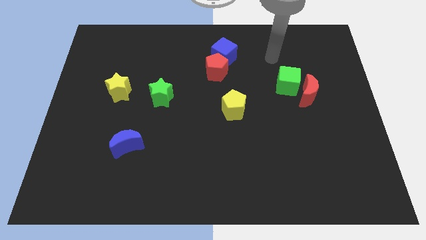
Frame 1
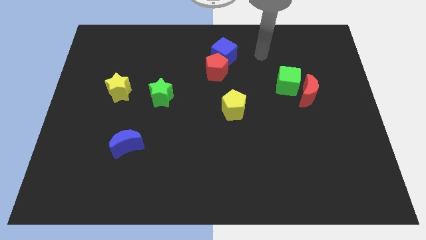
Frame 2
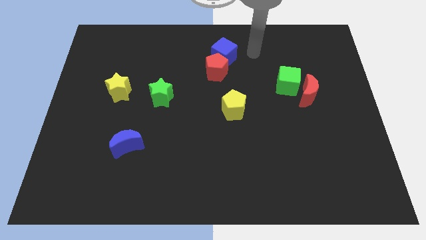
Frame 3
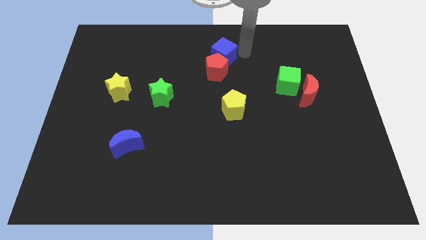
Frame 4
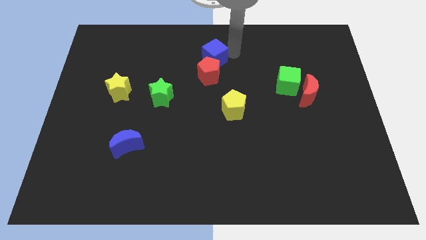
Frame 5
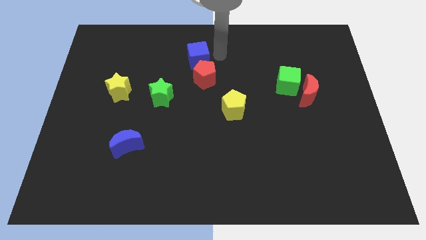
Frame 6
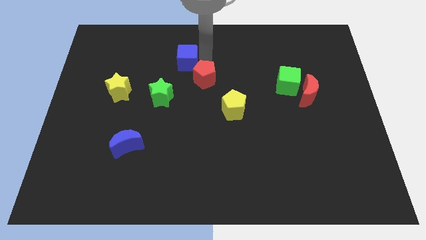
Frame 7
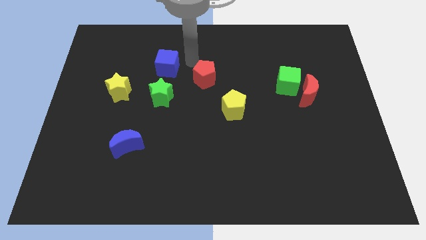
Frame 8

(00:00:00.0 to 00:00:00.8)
separate the red pentagon from the blue cube

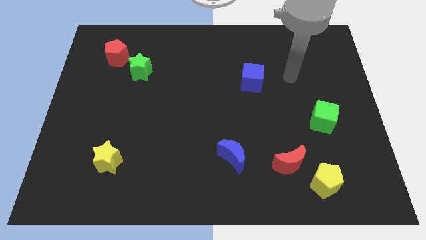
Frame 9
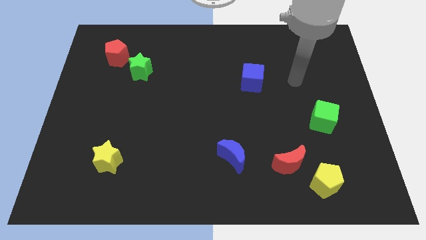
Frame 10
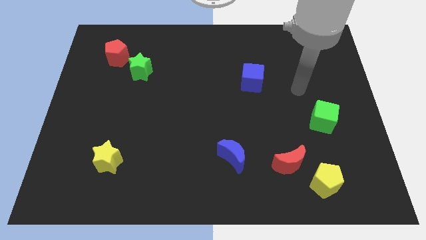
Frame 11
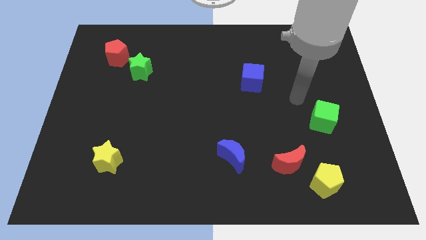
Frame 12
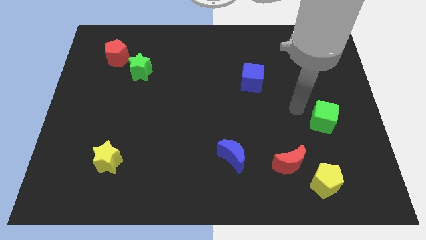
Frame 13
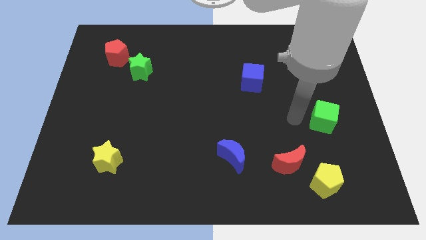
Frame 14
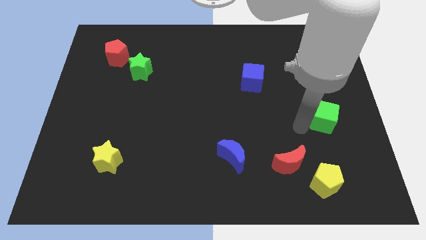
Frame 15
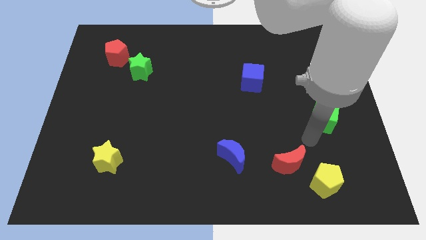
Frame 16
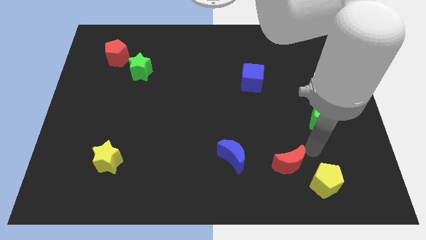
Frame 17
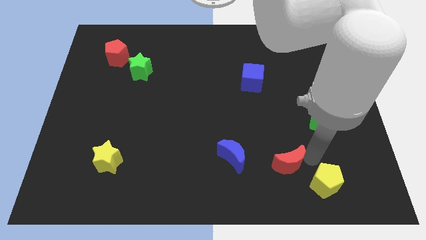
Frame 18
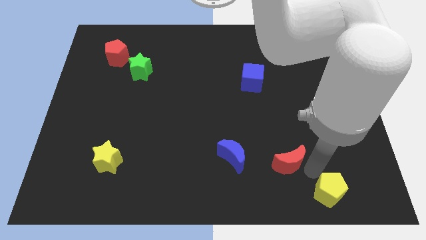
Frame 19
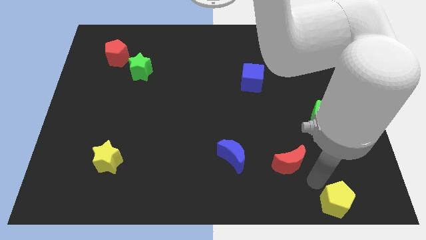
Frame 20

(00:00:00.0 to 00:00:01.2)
separate the red moon from the yellow pentagon

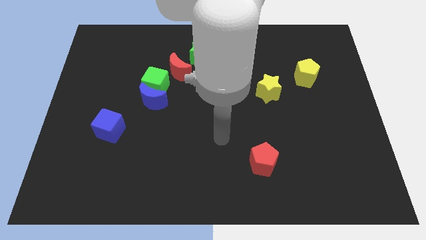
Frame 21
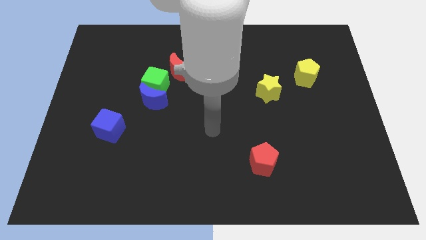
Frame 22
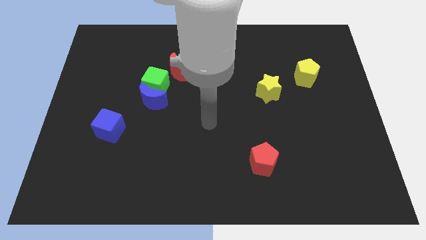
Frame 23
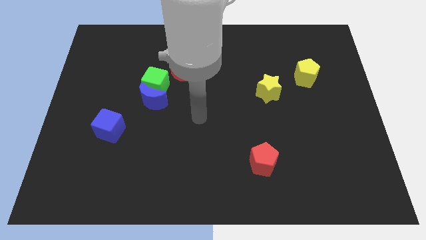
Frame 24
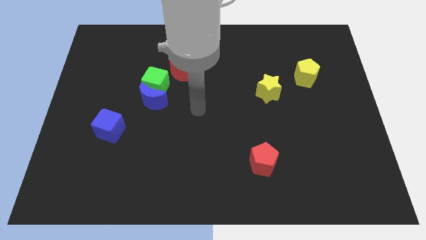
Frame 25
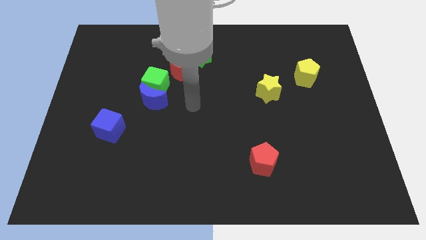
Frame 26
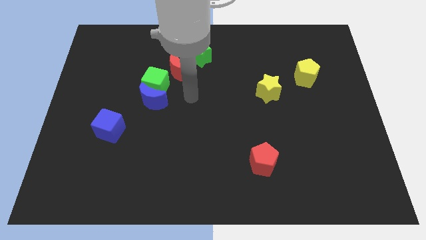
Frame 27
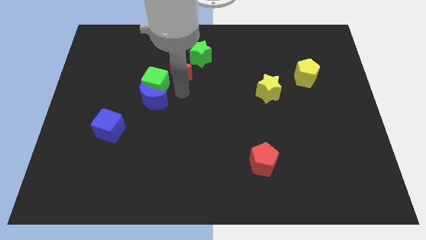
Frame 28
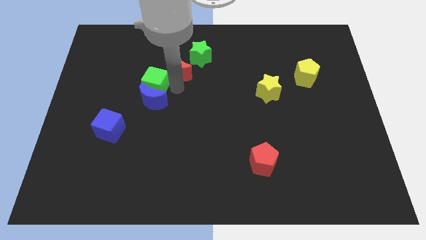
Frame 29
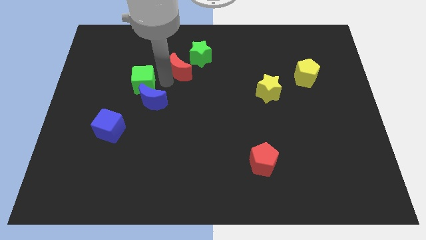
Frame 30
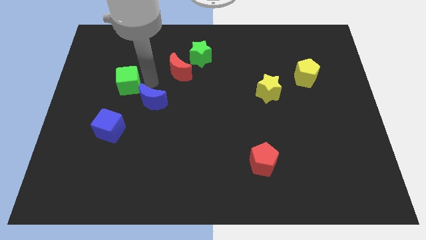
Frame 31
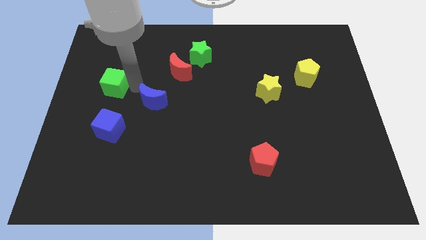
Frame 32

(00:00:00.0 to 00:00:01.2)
pull the blue moon apart from the green cube

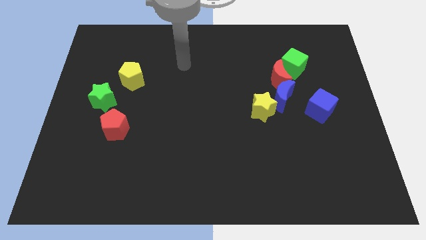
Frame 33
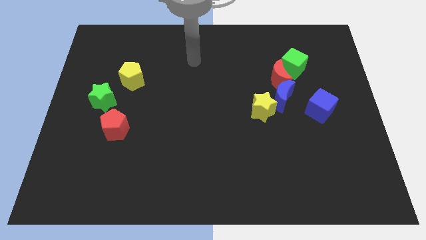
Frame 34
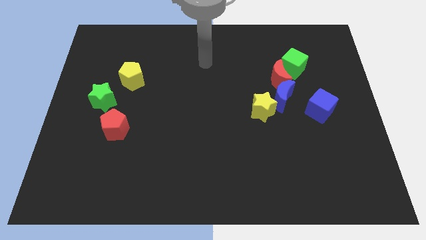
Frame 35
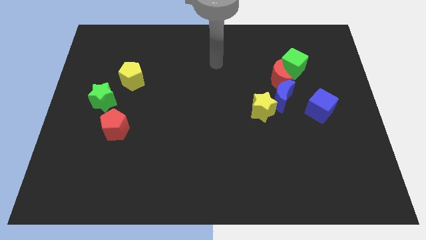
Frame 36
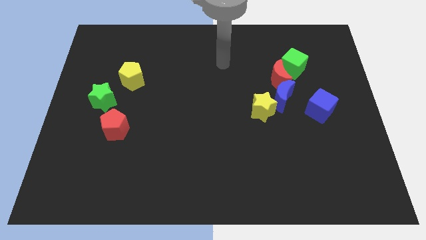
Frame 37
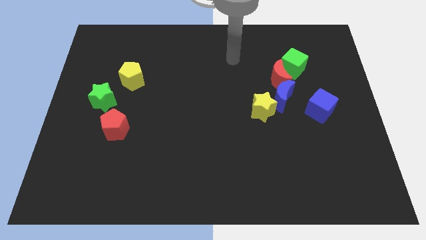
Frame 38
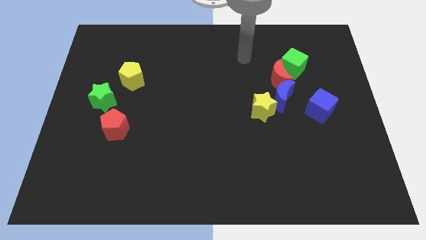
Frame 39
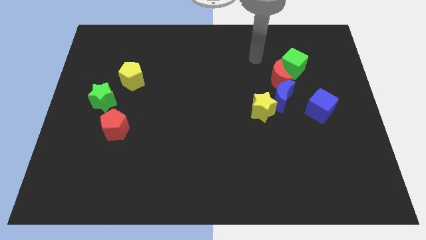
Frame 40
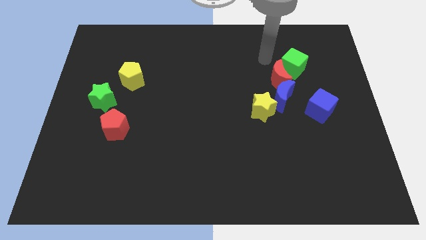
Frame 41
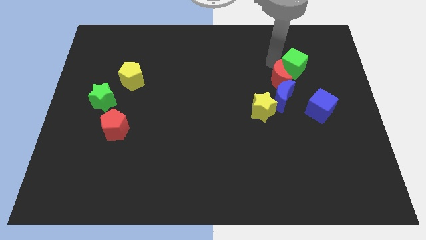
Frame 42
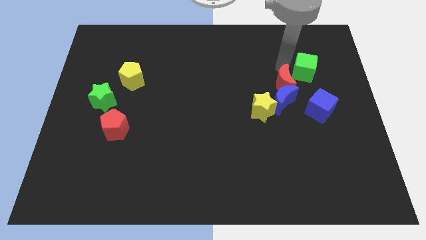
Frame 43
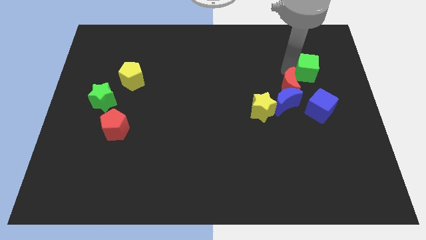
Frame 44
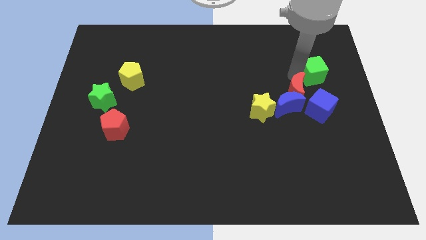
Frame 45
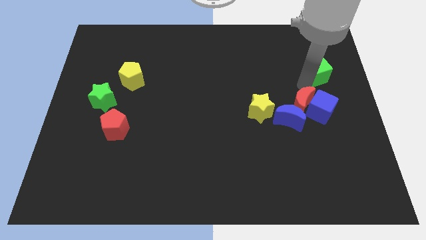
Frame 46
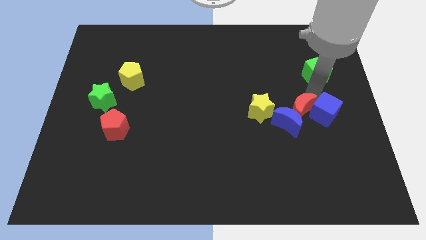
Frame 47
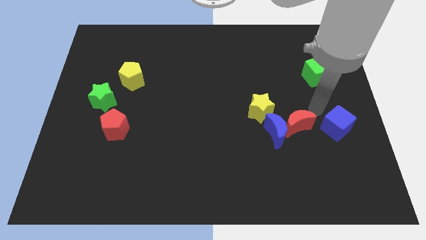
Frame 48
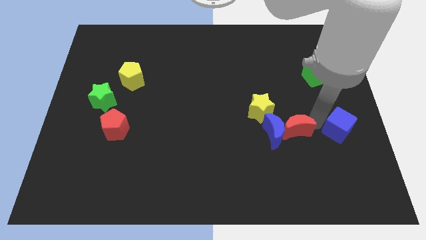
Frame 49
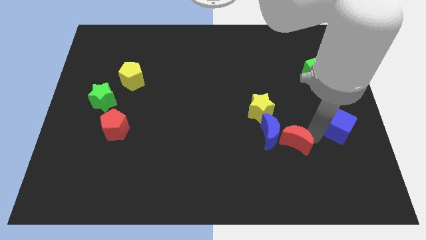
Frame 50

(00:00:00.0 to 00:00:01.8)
separate the red moon from the blue moon and green cube

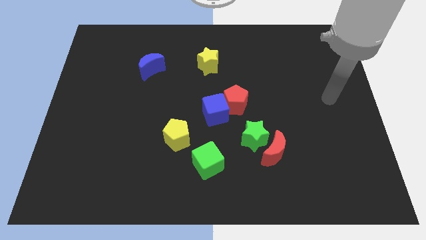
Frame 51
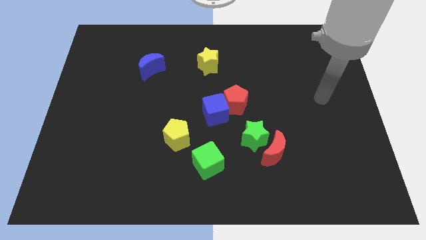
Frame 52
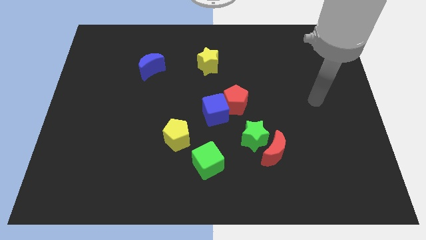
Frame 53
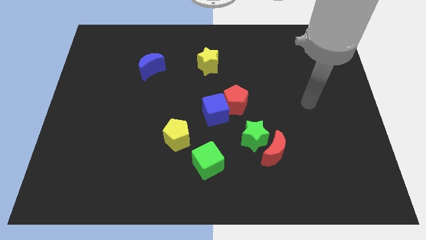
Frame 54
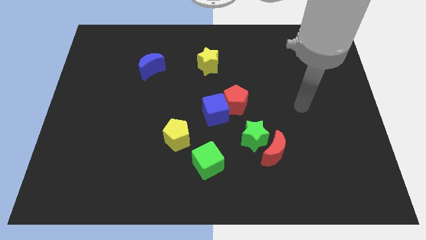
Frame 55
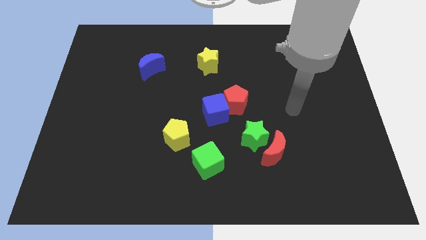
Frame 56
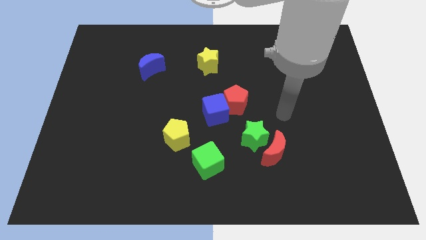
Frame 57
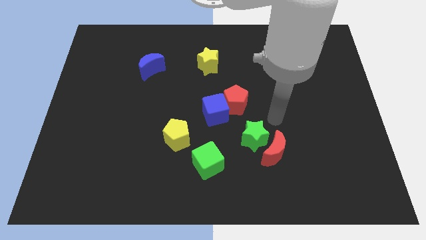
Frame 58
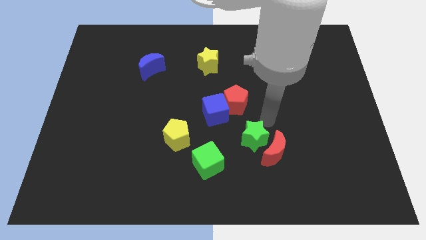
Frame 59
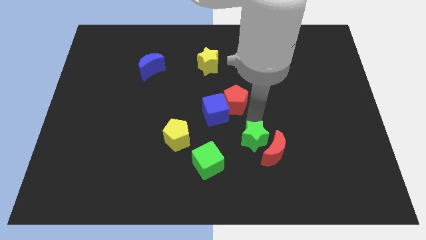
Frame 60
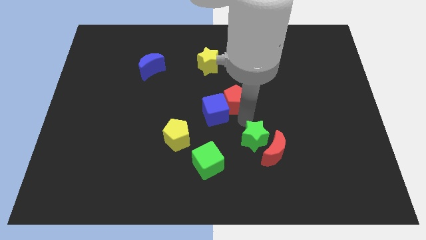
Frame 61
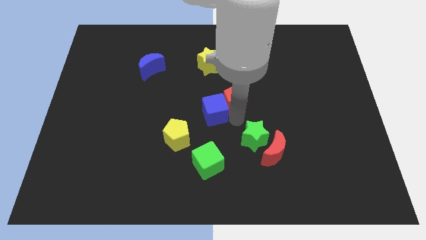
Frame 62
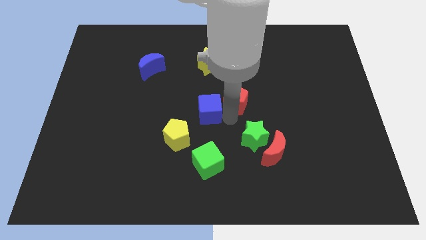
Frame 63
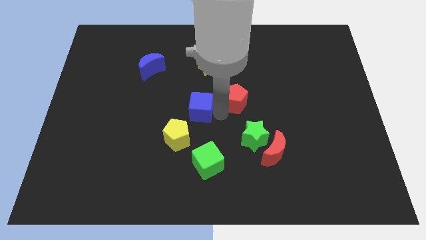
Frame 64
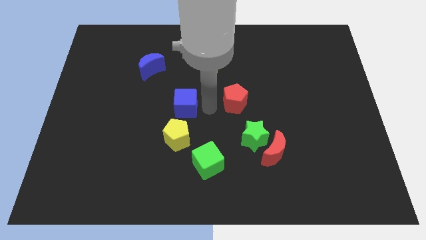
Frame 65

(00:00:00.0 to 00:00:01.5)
move the red pentagon away from the blue cube

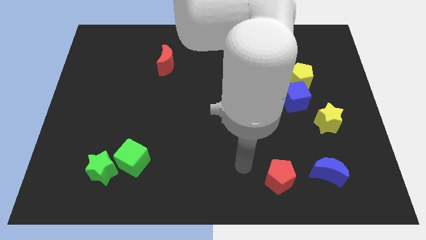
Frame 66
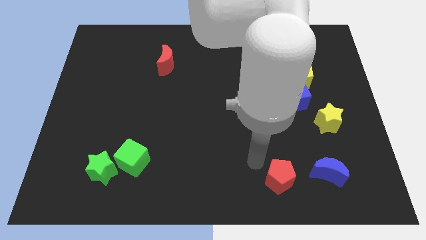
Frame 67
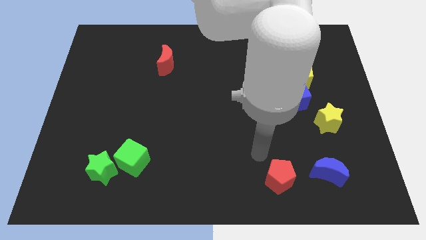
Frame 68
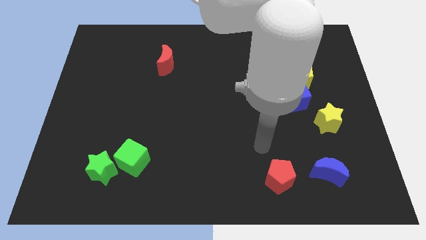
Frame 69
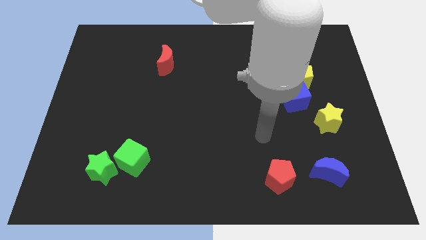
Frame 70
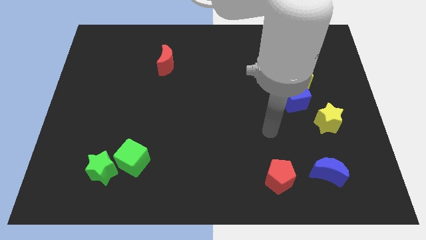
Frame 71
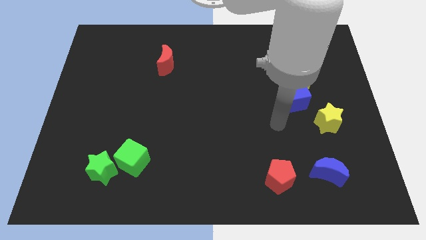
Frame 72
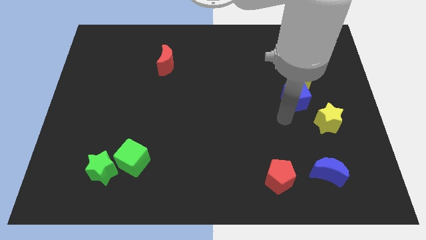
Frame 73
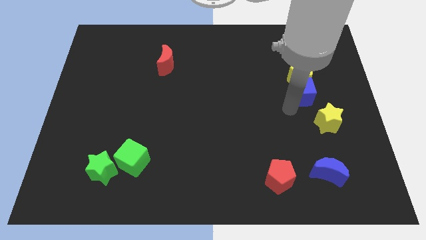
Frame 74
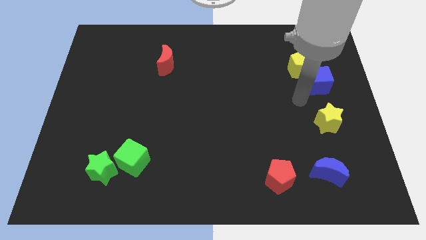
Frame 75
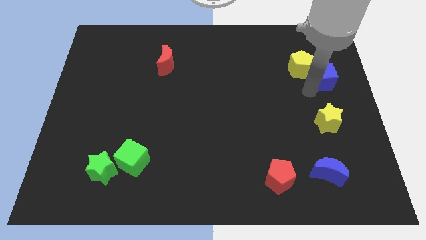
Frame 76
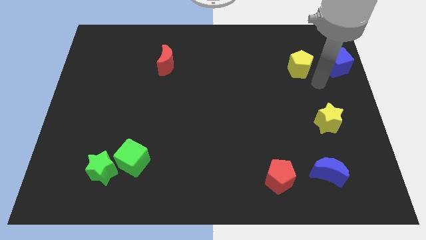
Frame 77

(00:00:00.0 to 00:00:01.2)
move the yellow pentagon away from the blue cube

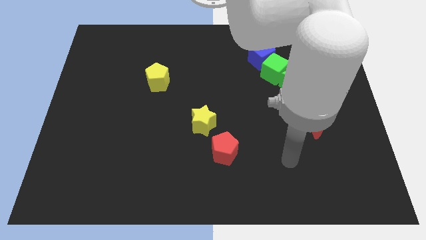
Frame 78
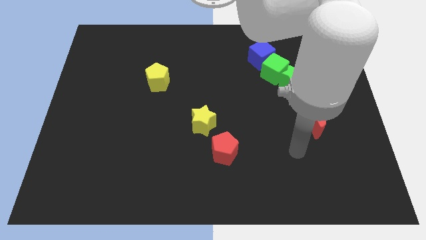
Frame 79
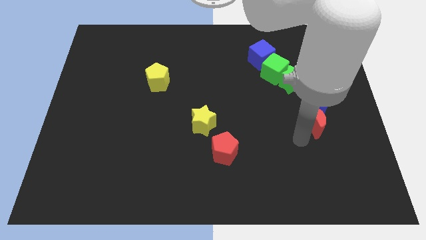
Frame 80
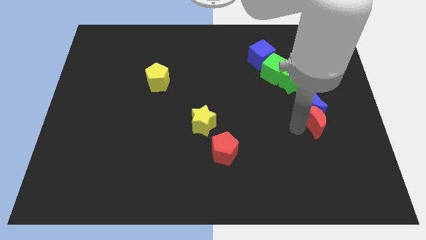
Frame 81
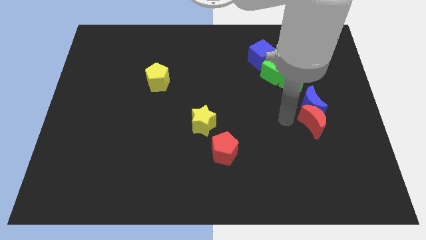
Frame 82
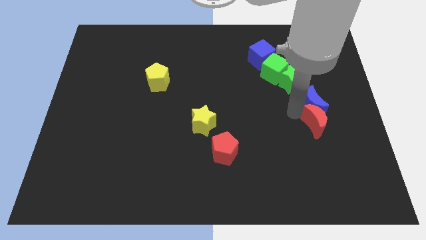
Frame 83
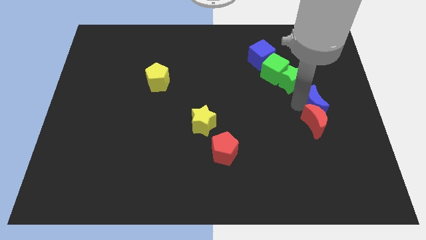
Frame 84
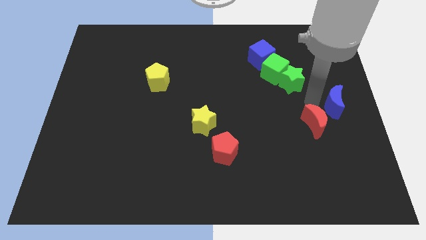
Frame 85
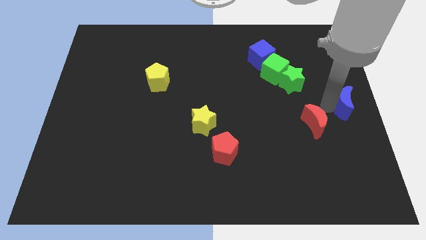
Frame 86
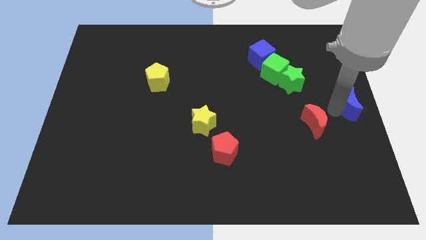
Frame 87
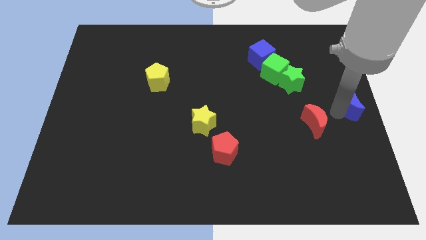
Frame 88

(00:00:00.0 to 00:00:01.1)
move the red moon away from the blue moon

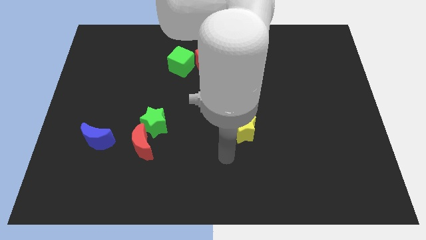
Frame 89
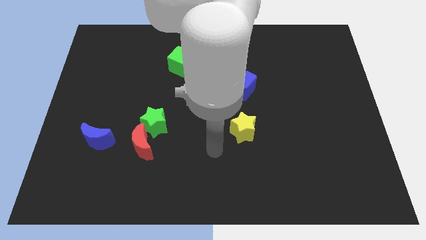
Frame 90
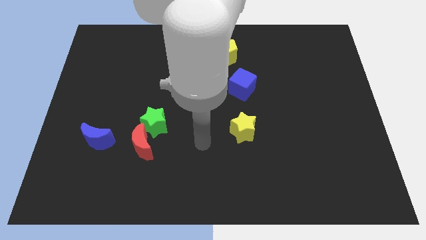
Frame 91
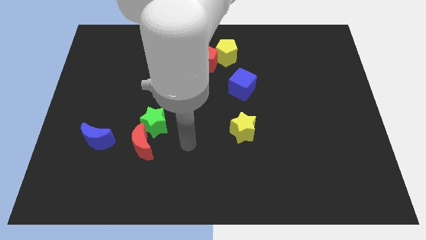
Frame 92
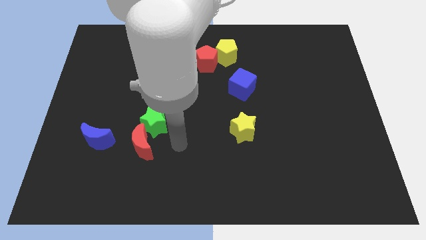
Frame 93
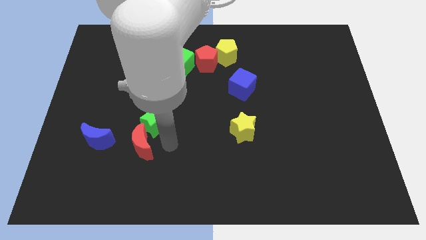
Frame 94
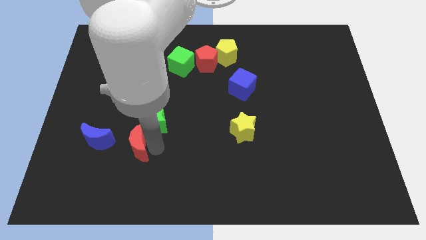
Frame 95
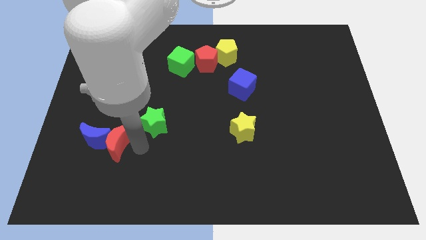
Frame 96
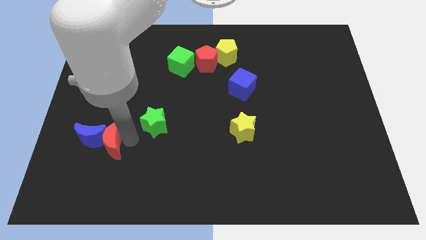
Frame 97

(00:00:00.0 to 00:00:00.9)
move the green star away from the red moon
